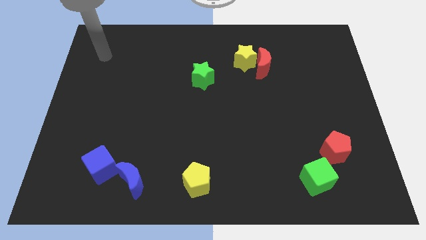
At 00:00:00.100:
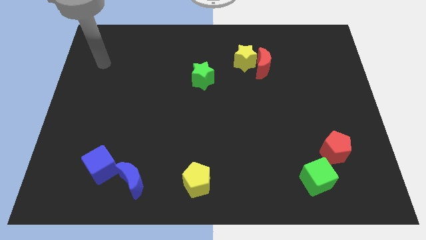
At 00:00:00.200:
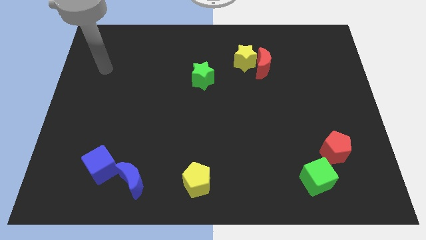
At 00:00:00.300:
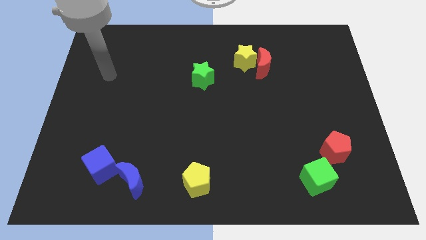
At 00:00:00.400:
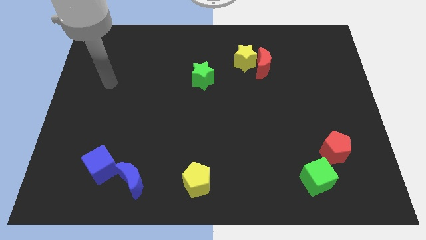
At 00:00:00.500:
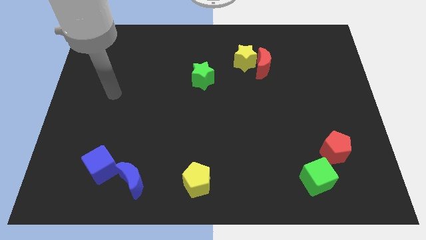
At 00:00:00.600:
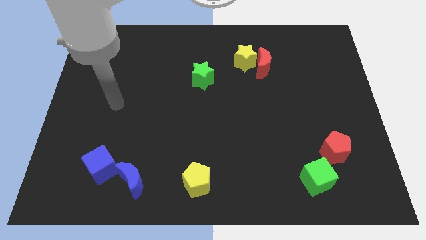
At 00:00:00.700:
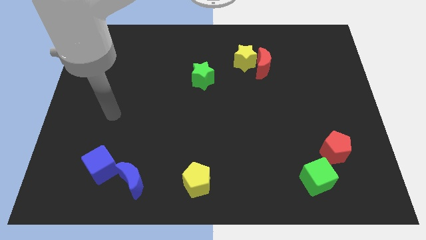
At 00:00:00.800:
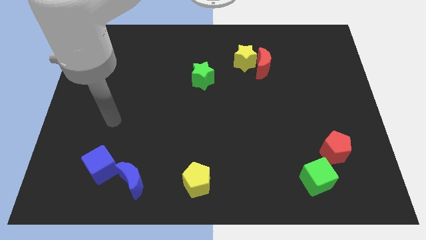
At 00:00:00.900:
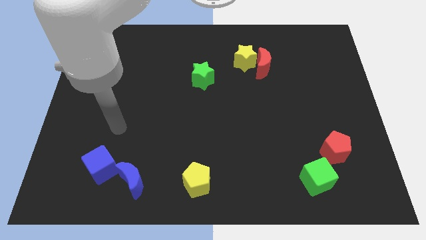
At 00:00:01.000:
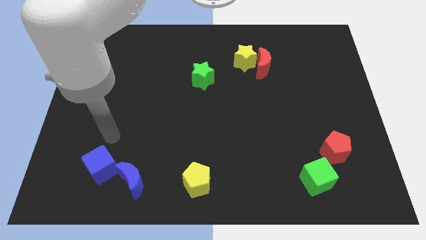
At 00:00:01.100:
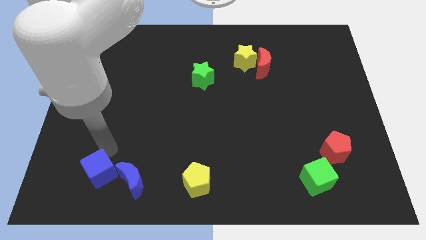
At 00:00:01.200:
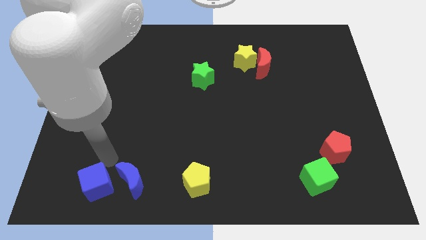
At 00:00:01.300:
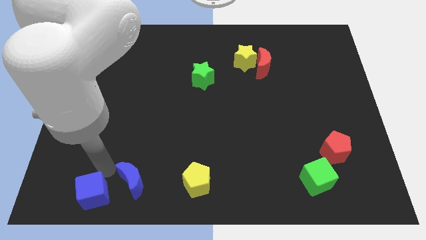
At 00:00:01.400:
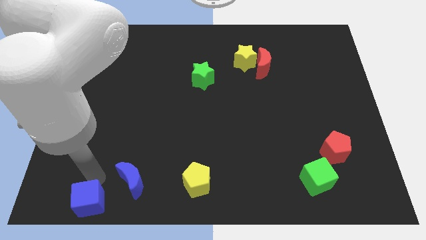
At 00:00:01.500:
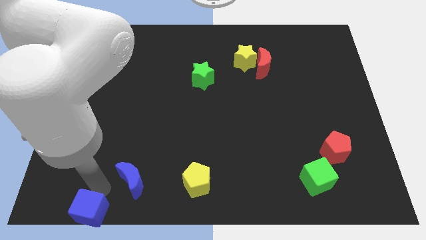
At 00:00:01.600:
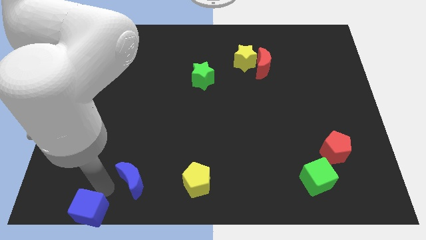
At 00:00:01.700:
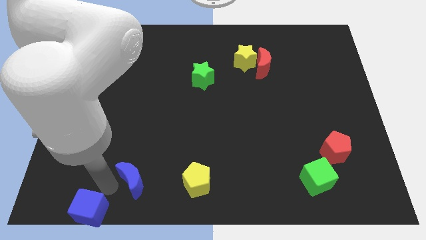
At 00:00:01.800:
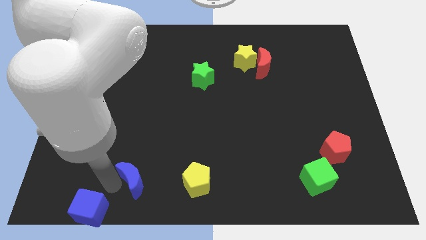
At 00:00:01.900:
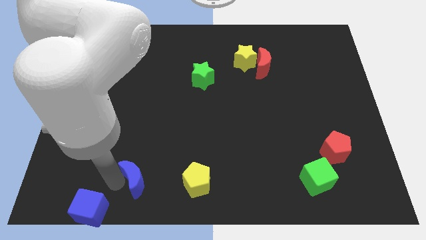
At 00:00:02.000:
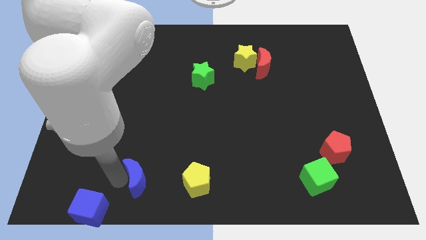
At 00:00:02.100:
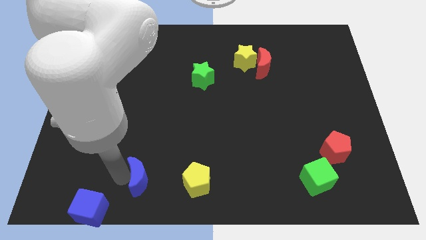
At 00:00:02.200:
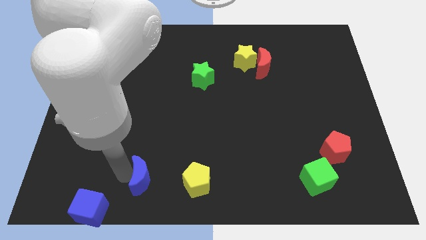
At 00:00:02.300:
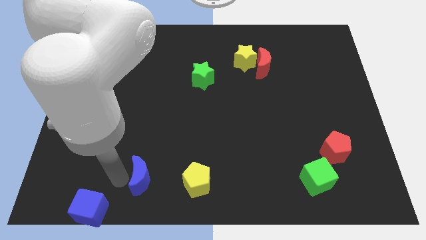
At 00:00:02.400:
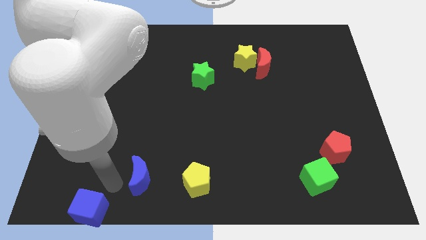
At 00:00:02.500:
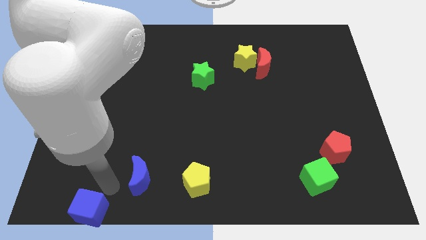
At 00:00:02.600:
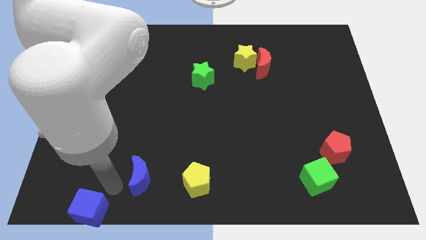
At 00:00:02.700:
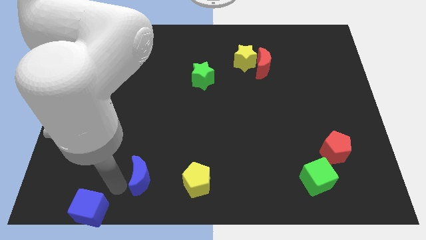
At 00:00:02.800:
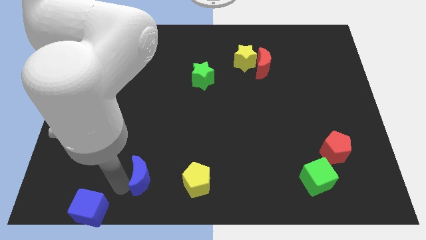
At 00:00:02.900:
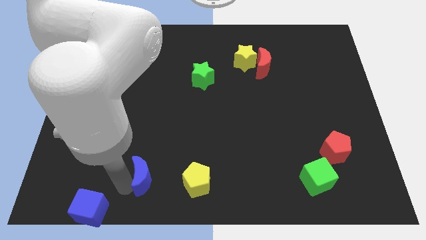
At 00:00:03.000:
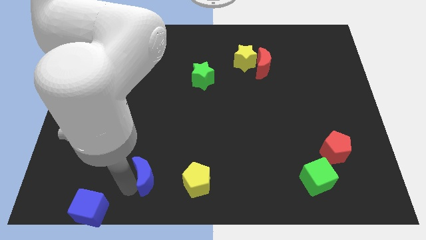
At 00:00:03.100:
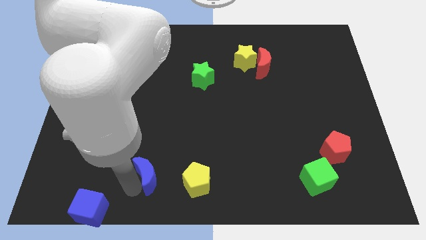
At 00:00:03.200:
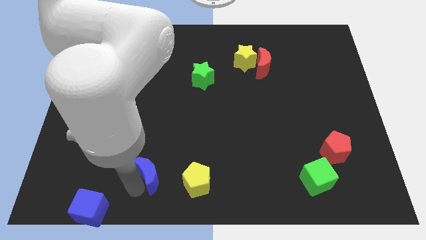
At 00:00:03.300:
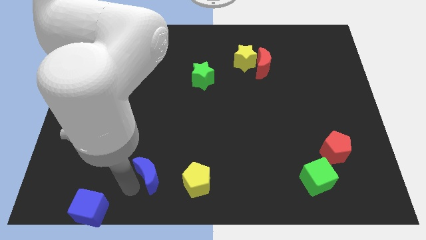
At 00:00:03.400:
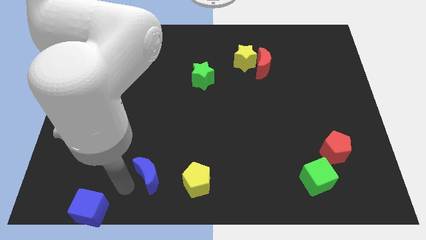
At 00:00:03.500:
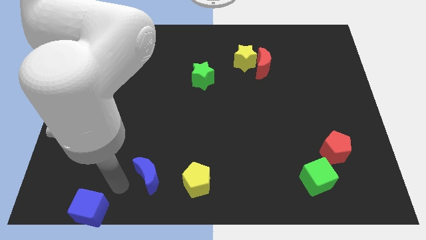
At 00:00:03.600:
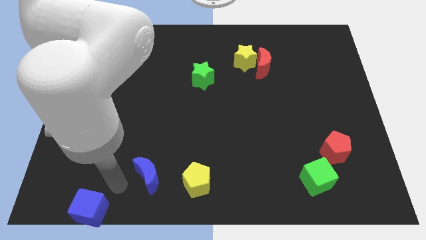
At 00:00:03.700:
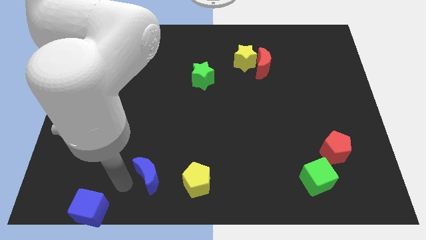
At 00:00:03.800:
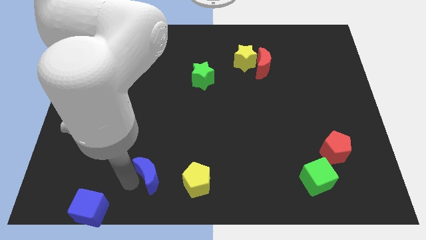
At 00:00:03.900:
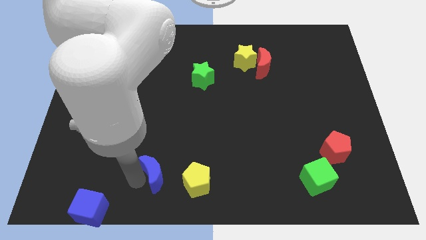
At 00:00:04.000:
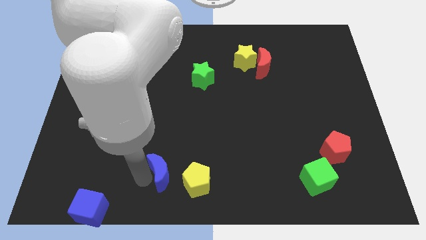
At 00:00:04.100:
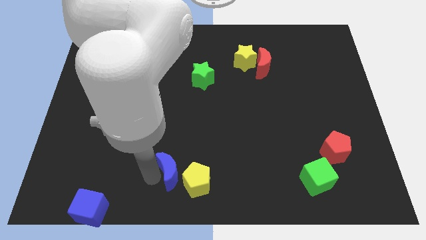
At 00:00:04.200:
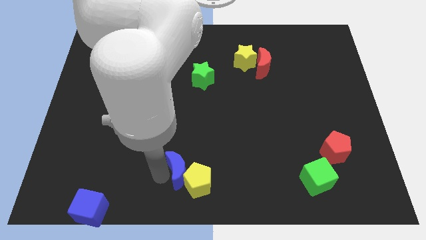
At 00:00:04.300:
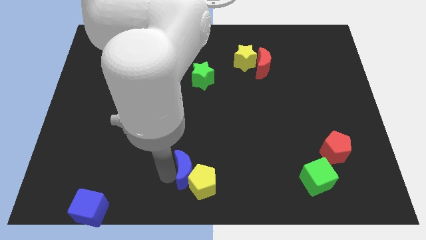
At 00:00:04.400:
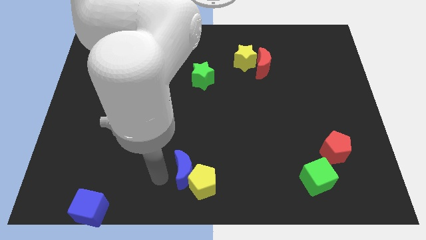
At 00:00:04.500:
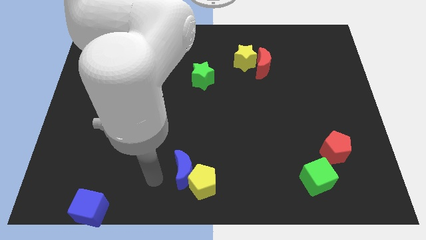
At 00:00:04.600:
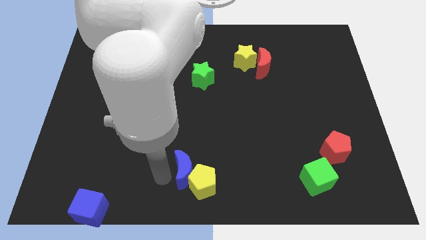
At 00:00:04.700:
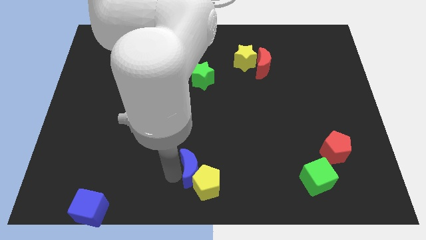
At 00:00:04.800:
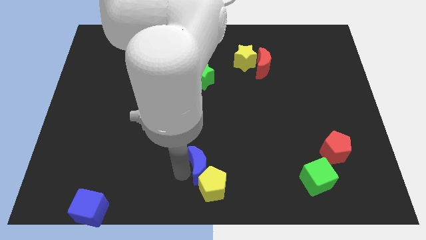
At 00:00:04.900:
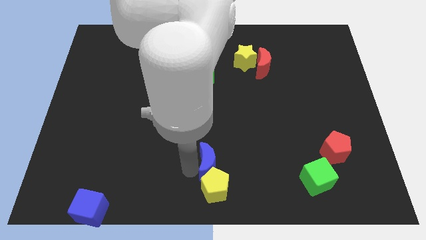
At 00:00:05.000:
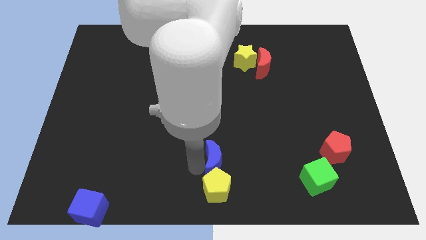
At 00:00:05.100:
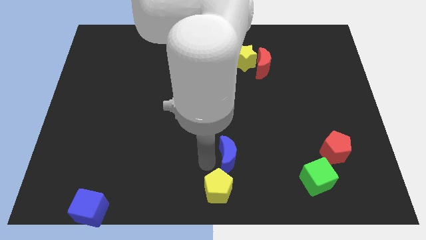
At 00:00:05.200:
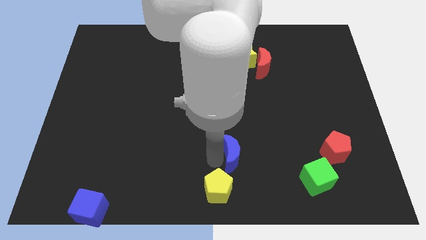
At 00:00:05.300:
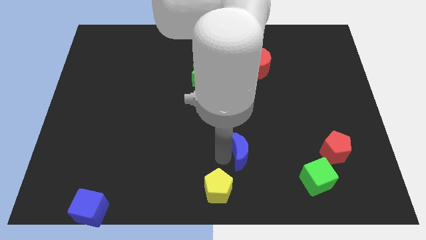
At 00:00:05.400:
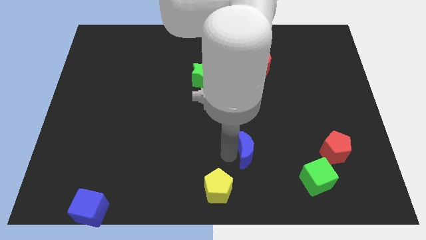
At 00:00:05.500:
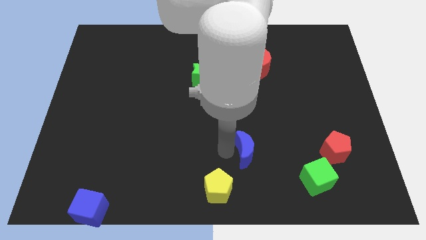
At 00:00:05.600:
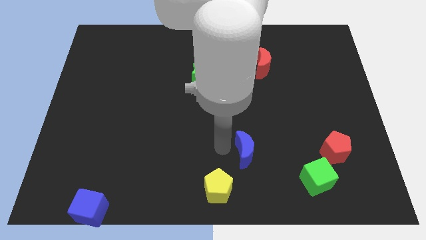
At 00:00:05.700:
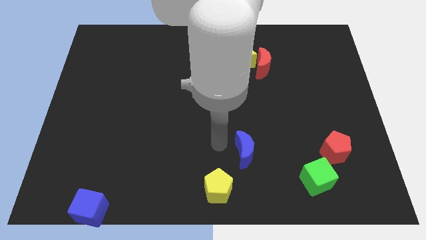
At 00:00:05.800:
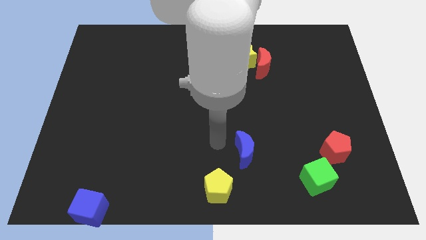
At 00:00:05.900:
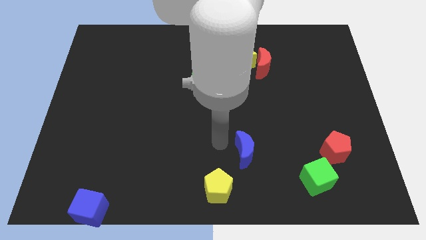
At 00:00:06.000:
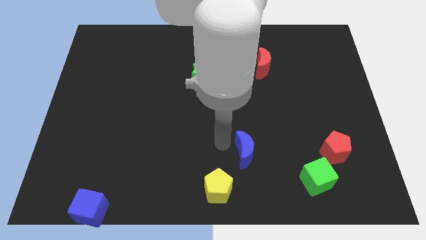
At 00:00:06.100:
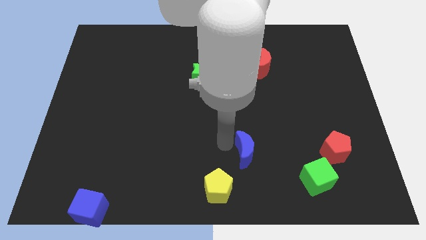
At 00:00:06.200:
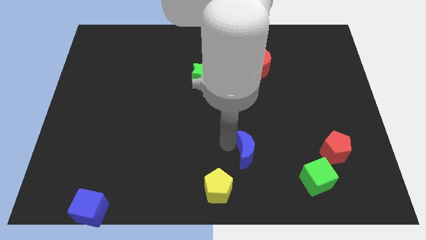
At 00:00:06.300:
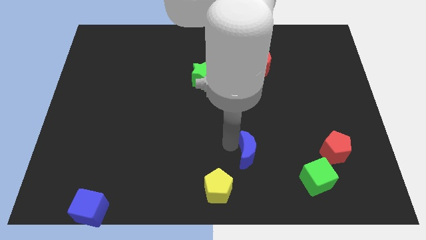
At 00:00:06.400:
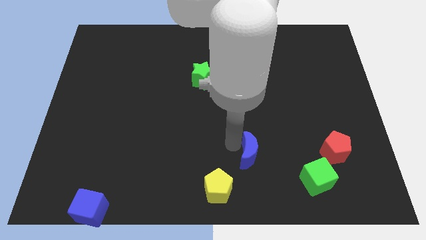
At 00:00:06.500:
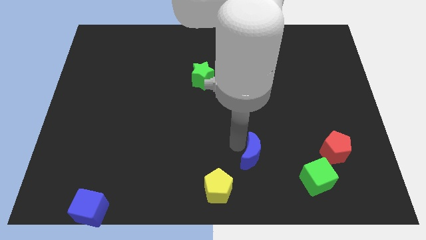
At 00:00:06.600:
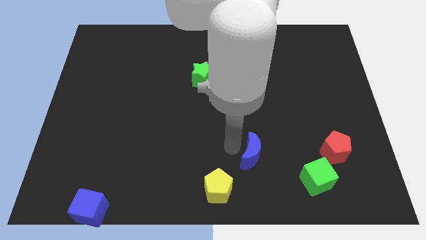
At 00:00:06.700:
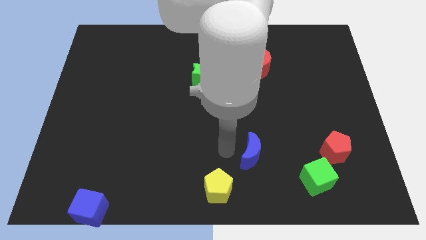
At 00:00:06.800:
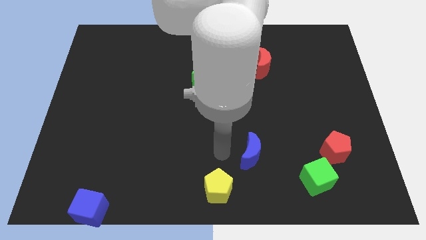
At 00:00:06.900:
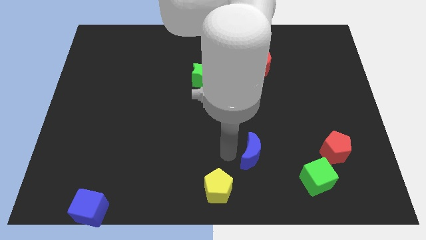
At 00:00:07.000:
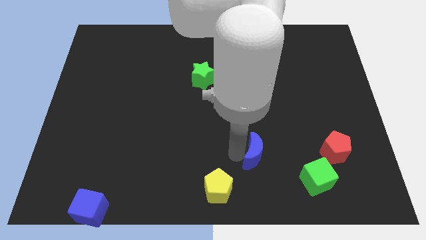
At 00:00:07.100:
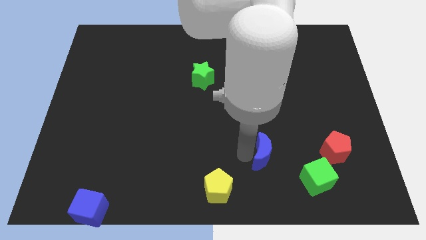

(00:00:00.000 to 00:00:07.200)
slide the blue moon to the top left side of the green cube

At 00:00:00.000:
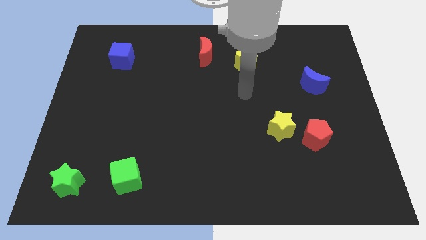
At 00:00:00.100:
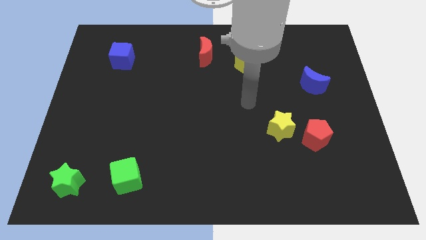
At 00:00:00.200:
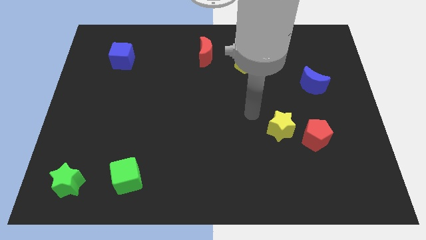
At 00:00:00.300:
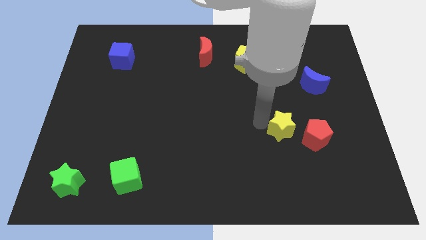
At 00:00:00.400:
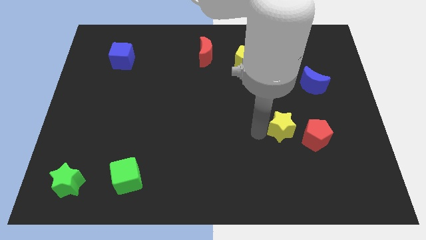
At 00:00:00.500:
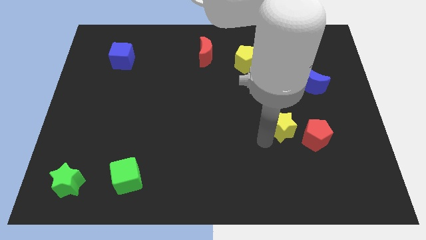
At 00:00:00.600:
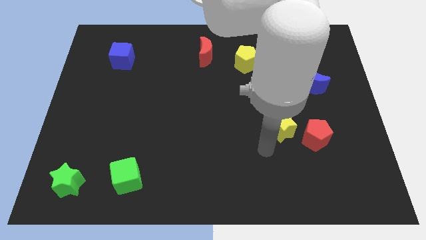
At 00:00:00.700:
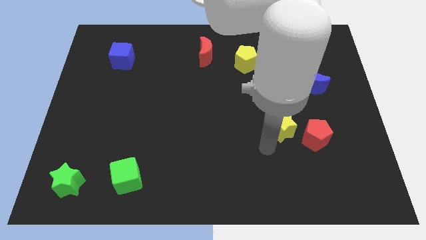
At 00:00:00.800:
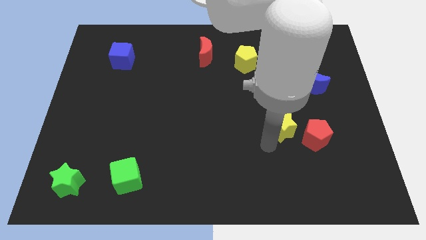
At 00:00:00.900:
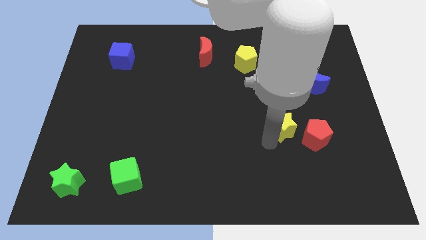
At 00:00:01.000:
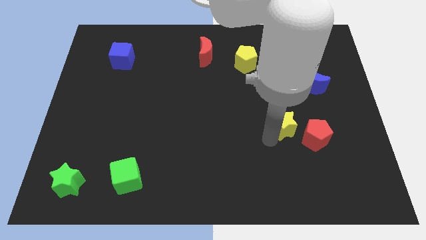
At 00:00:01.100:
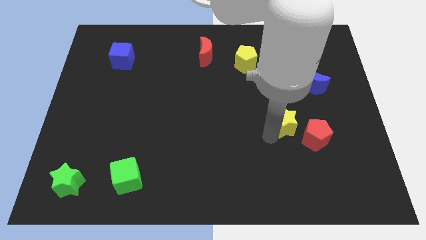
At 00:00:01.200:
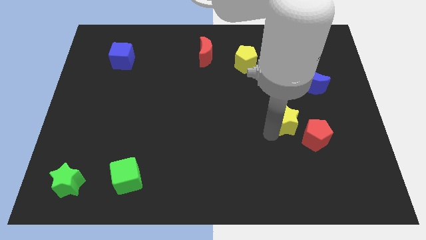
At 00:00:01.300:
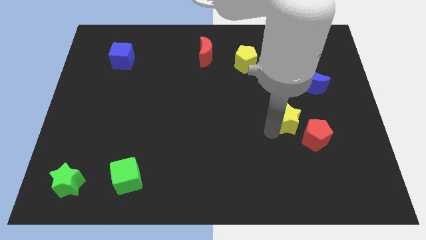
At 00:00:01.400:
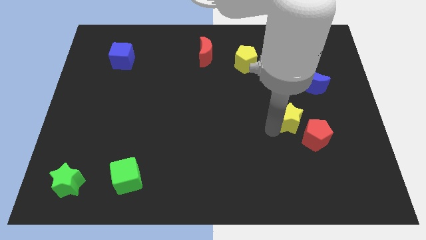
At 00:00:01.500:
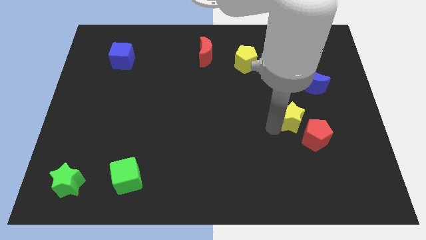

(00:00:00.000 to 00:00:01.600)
slide the yellow star to the top of the red pentagon
